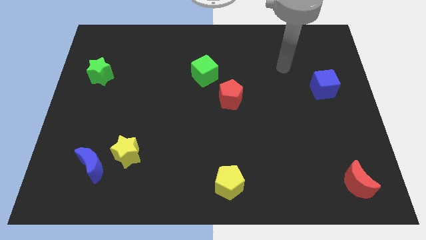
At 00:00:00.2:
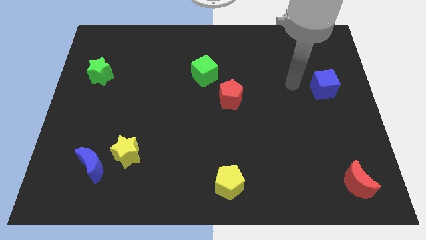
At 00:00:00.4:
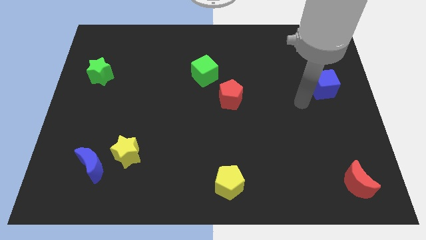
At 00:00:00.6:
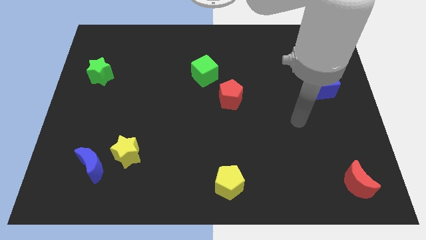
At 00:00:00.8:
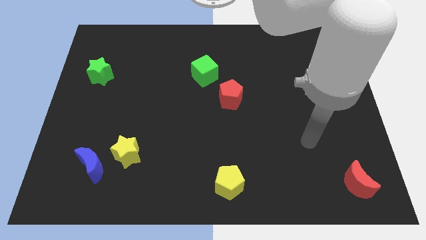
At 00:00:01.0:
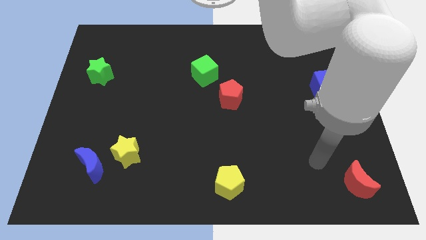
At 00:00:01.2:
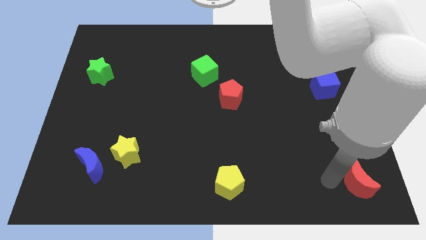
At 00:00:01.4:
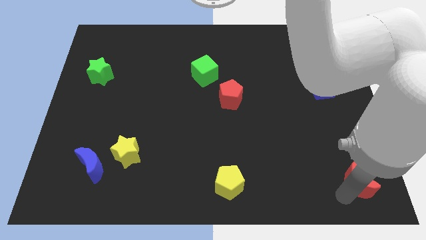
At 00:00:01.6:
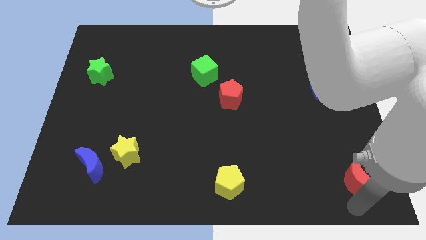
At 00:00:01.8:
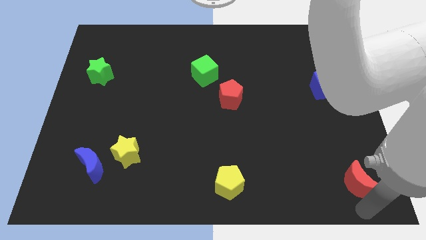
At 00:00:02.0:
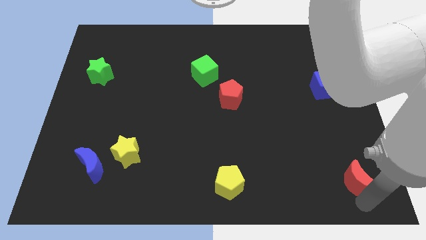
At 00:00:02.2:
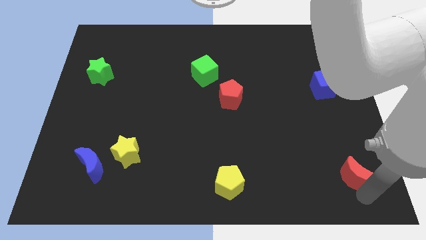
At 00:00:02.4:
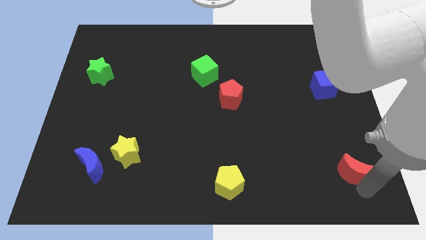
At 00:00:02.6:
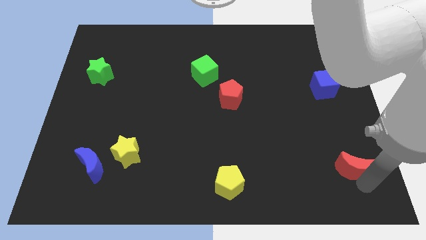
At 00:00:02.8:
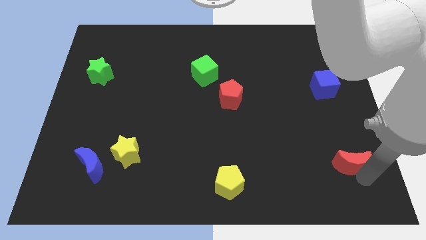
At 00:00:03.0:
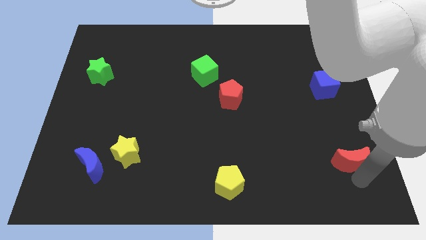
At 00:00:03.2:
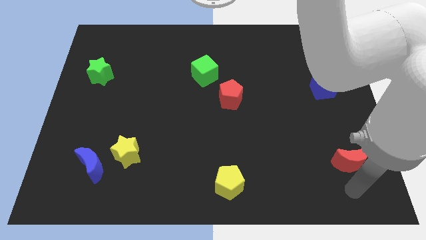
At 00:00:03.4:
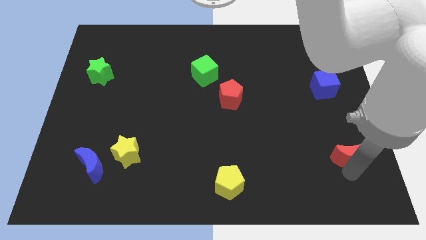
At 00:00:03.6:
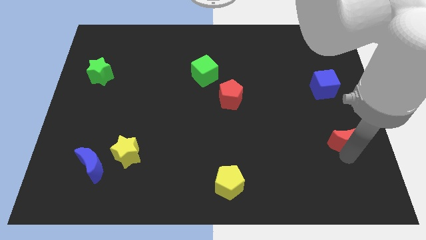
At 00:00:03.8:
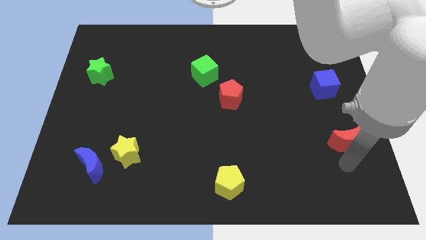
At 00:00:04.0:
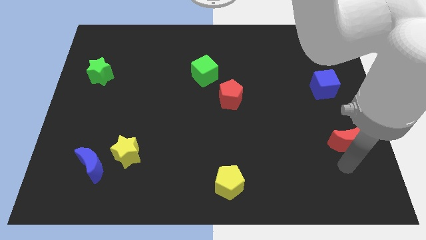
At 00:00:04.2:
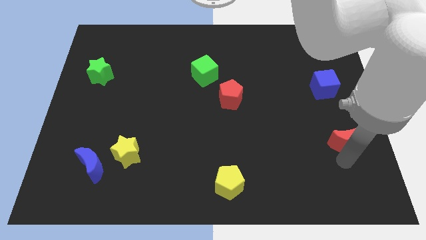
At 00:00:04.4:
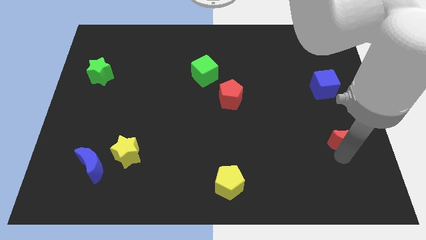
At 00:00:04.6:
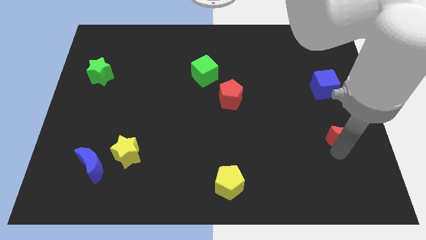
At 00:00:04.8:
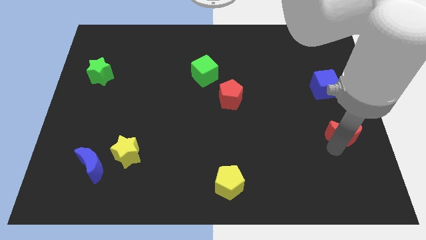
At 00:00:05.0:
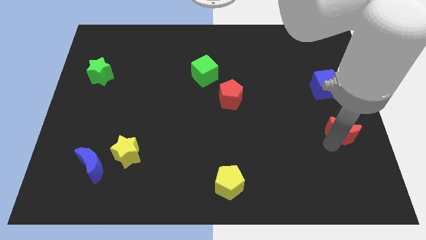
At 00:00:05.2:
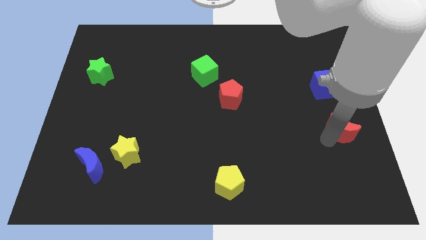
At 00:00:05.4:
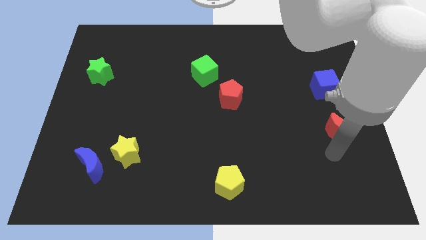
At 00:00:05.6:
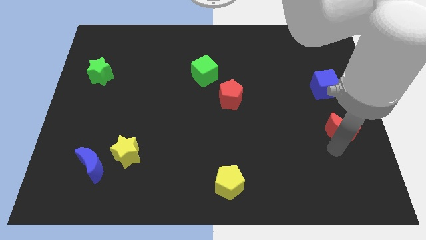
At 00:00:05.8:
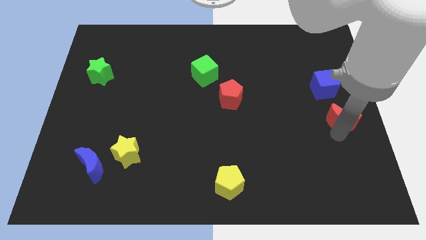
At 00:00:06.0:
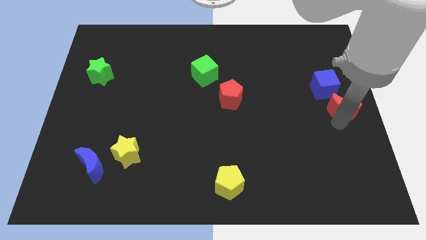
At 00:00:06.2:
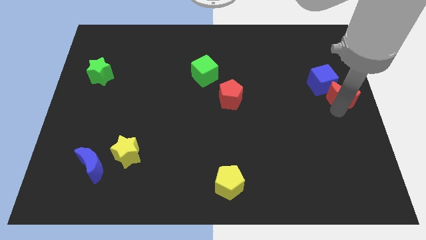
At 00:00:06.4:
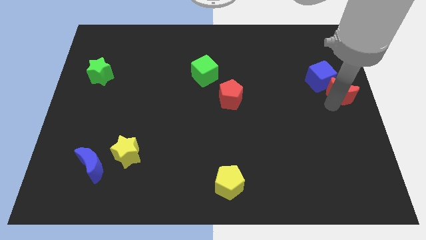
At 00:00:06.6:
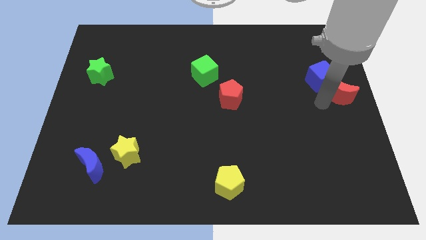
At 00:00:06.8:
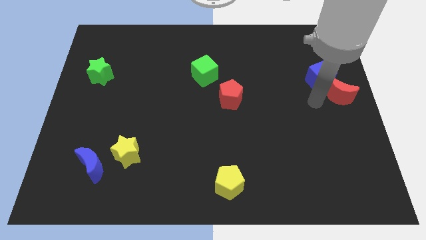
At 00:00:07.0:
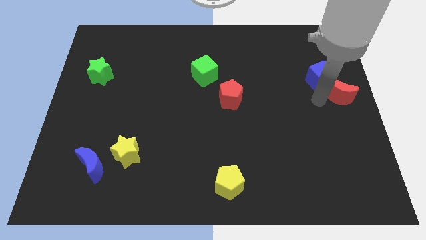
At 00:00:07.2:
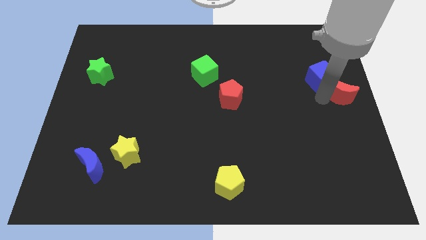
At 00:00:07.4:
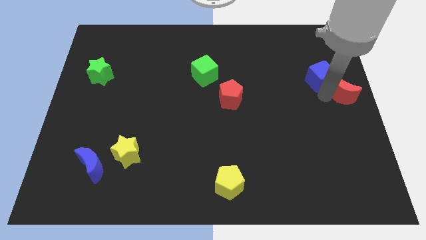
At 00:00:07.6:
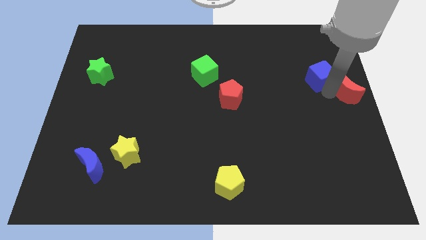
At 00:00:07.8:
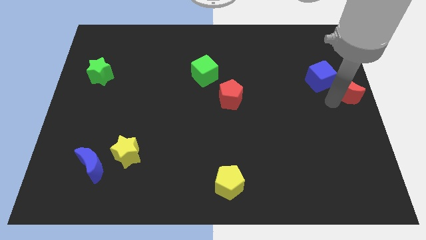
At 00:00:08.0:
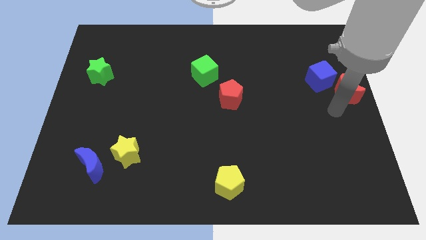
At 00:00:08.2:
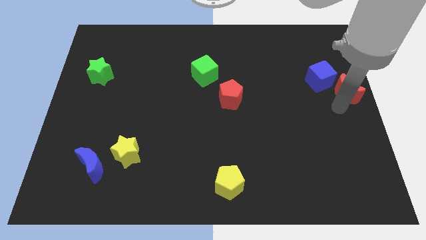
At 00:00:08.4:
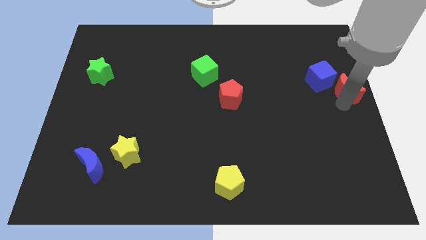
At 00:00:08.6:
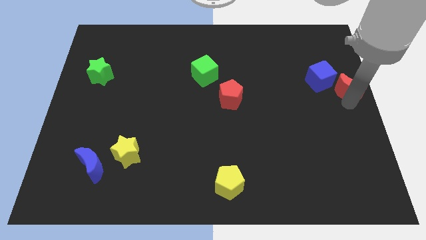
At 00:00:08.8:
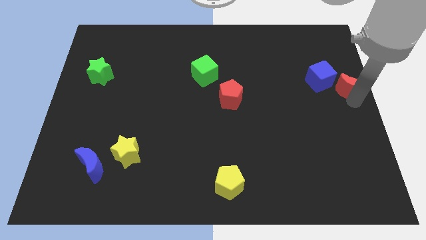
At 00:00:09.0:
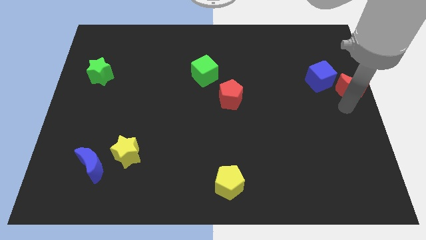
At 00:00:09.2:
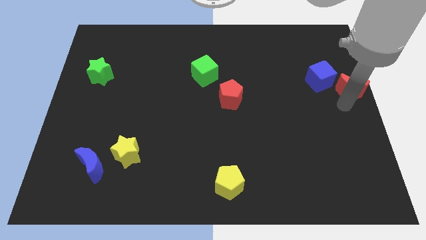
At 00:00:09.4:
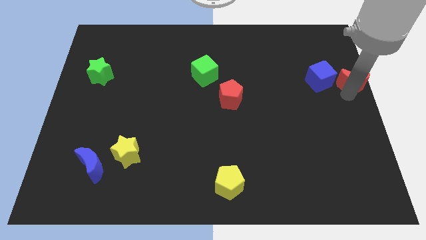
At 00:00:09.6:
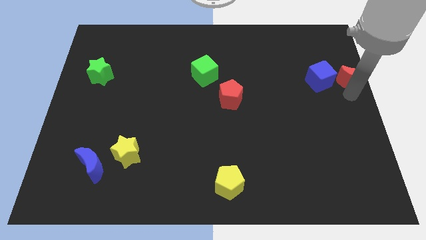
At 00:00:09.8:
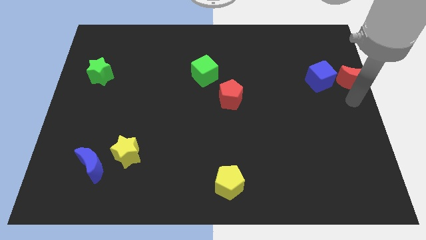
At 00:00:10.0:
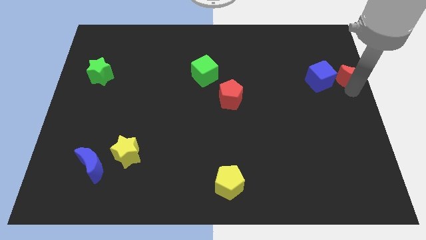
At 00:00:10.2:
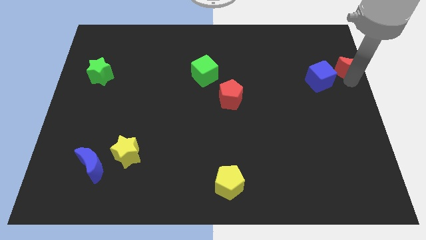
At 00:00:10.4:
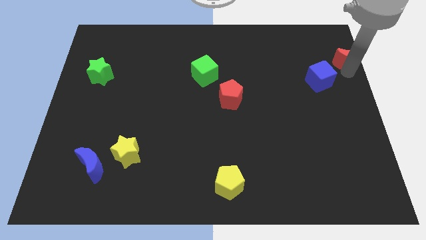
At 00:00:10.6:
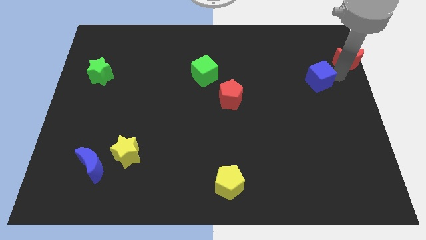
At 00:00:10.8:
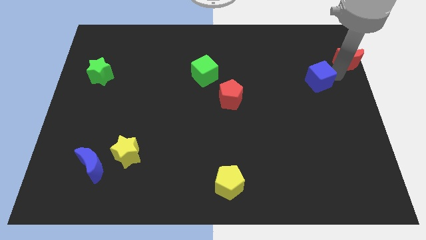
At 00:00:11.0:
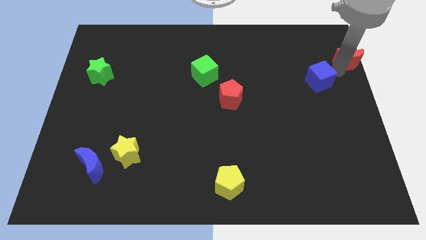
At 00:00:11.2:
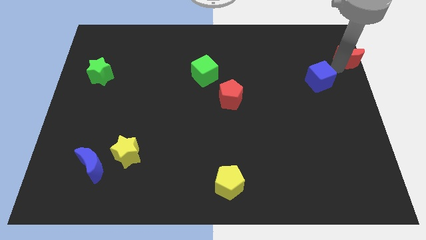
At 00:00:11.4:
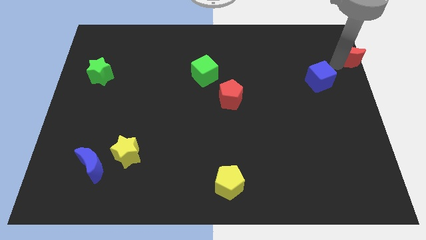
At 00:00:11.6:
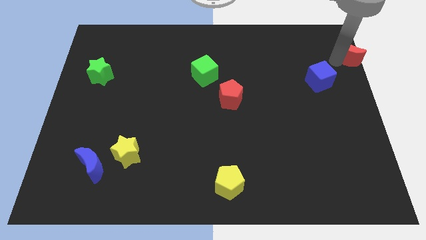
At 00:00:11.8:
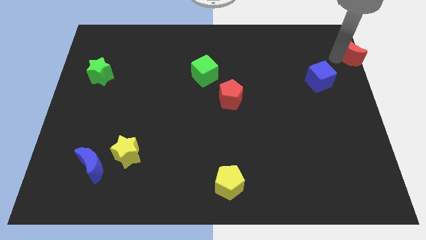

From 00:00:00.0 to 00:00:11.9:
slide the red moon to the top right corner
